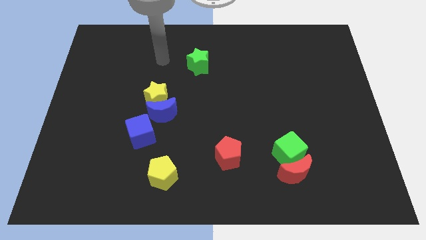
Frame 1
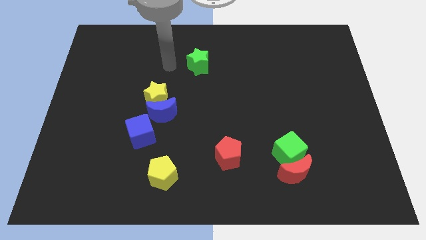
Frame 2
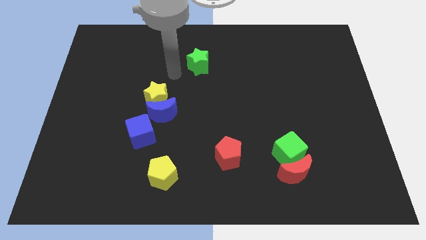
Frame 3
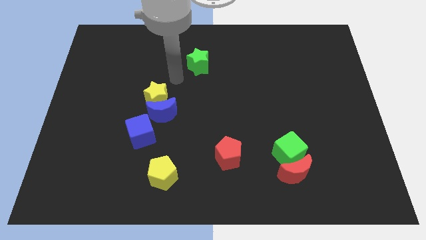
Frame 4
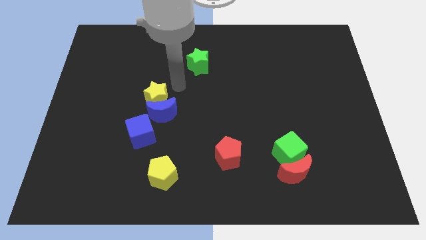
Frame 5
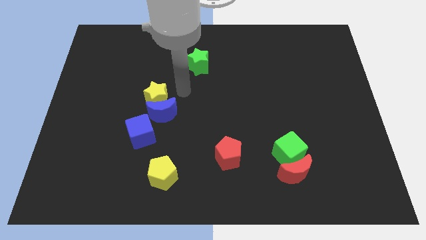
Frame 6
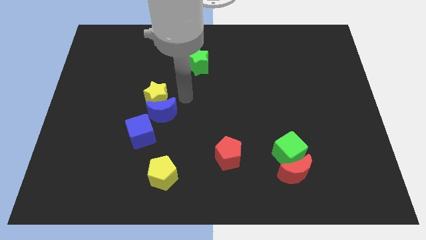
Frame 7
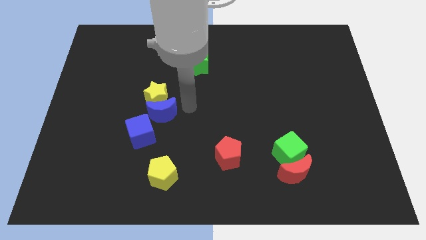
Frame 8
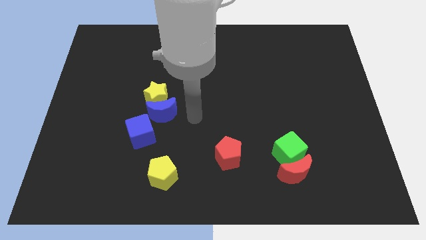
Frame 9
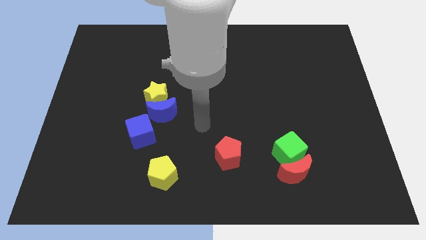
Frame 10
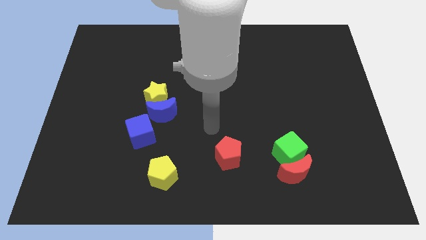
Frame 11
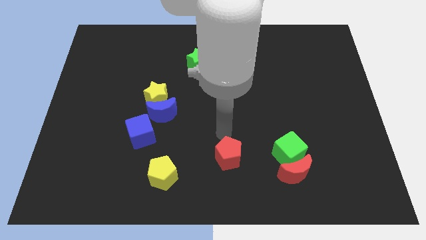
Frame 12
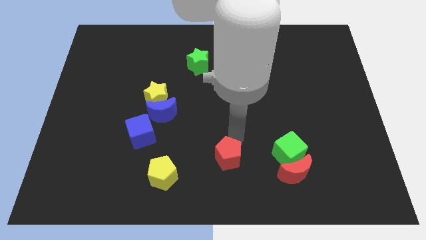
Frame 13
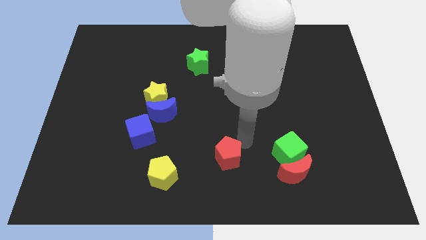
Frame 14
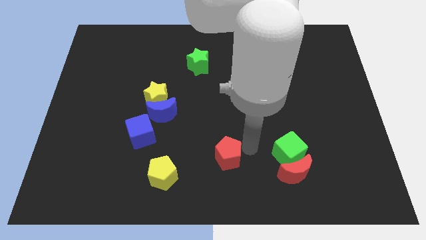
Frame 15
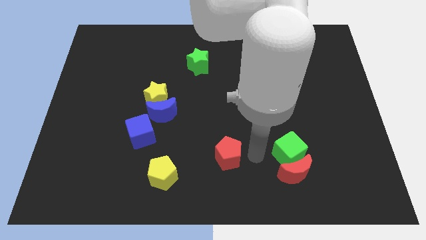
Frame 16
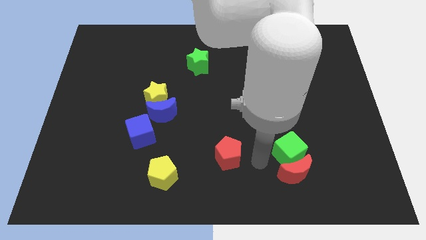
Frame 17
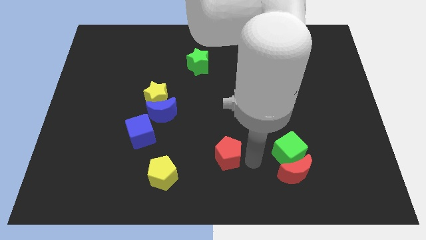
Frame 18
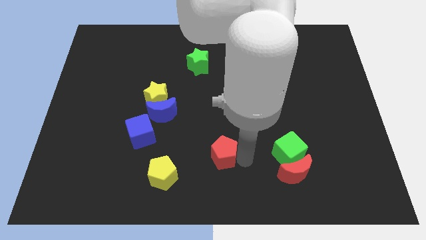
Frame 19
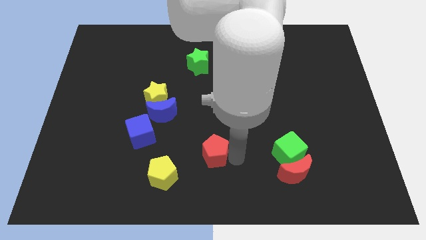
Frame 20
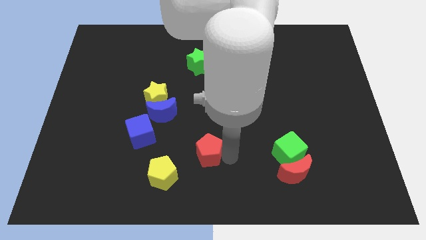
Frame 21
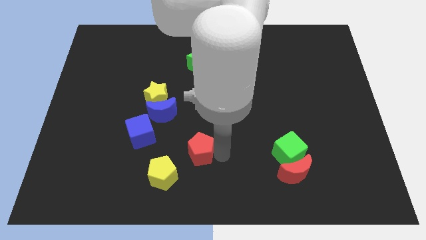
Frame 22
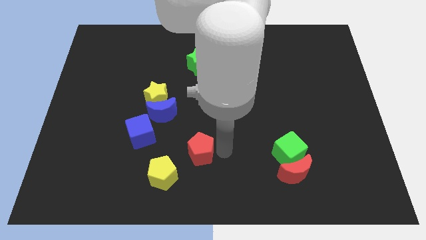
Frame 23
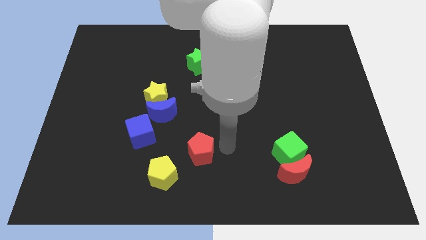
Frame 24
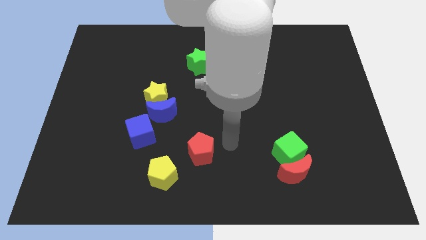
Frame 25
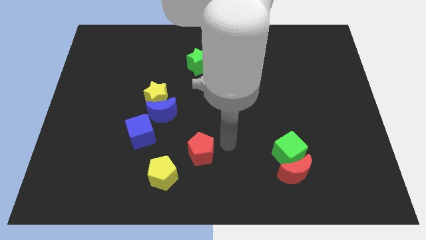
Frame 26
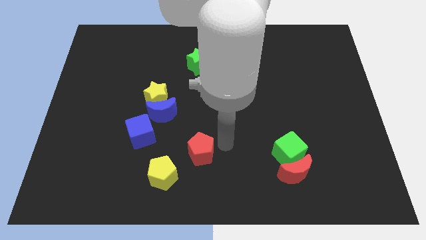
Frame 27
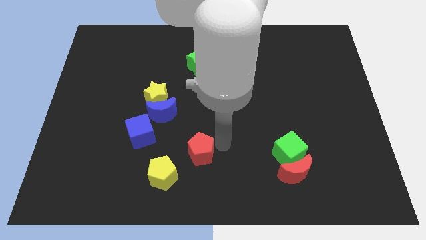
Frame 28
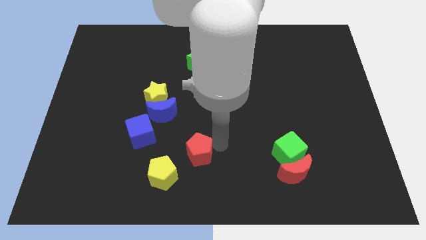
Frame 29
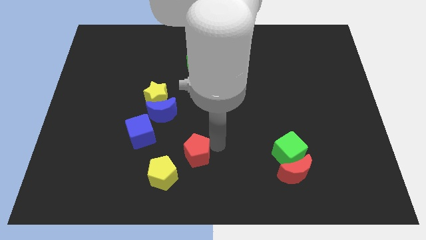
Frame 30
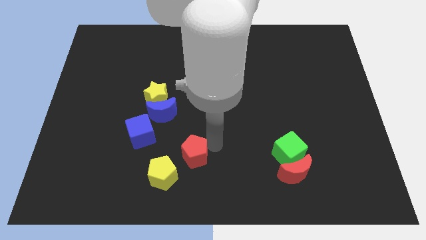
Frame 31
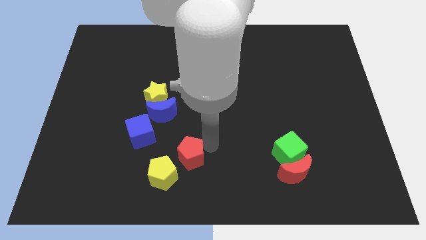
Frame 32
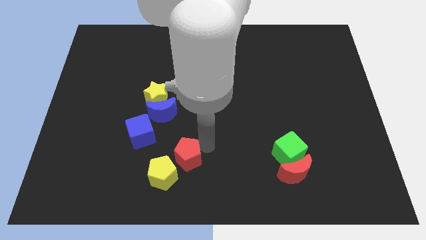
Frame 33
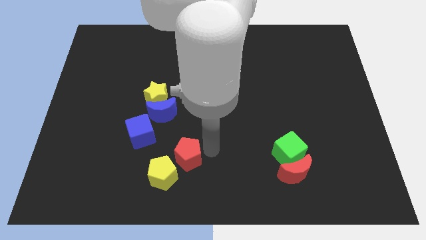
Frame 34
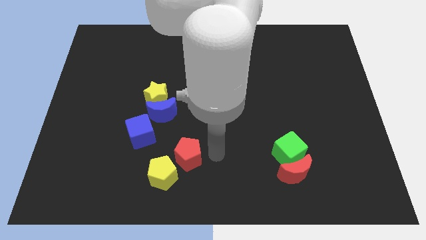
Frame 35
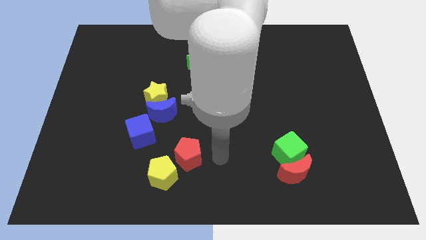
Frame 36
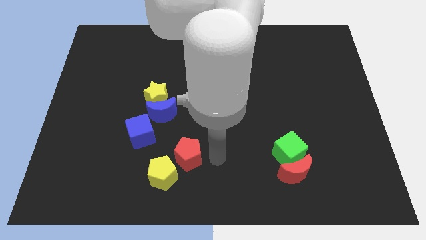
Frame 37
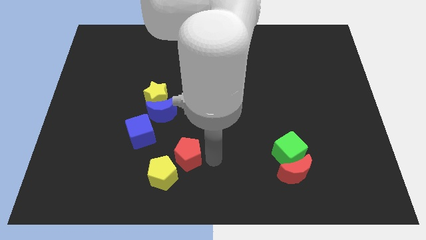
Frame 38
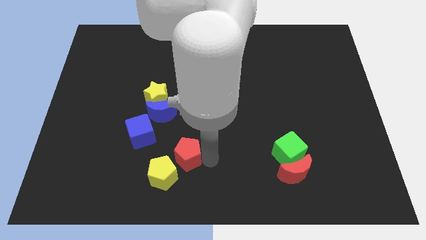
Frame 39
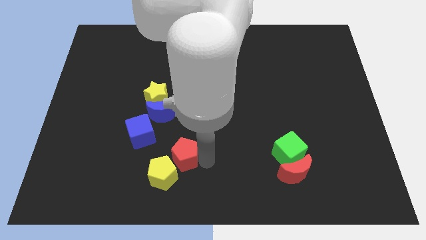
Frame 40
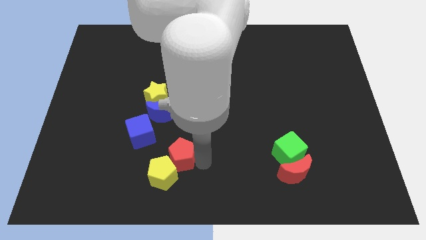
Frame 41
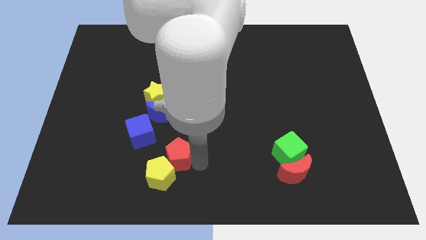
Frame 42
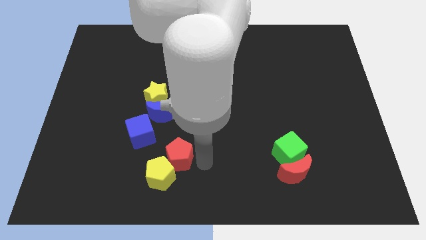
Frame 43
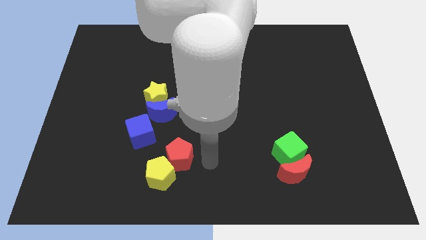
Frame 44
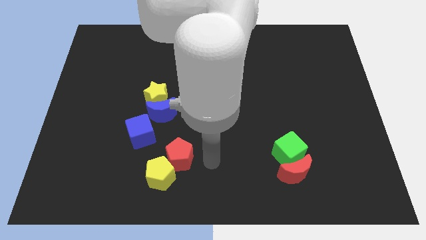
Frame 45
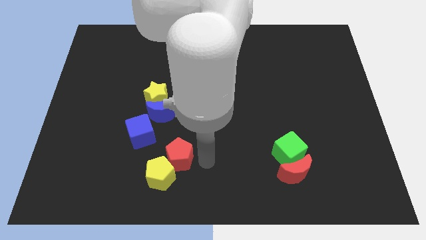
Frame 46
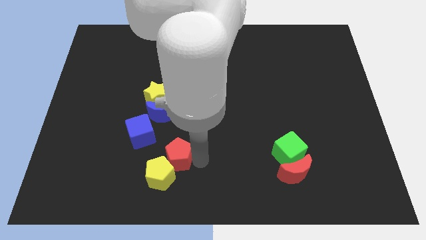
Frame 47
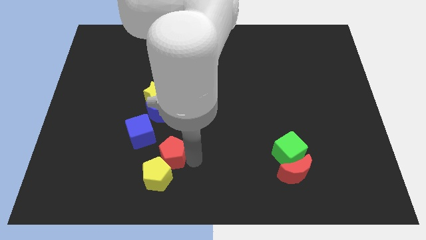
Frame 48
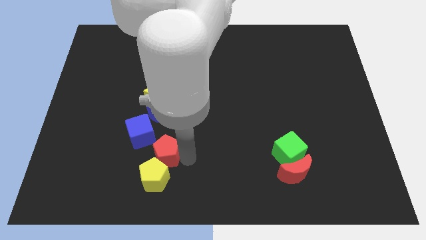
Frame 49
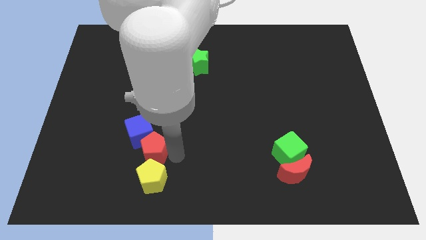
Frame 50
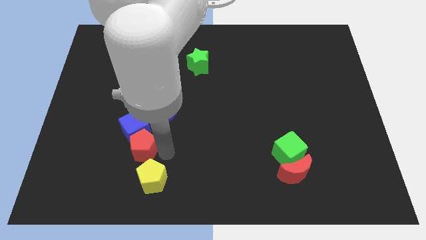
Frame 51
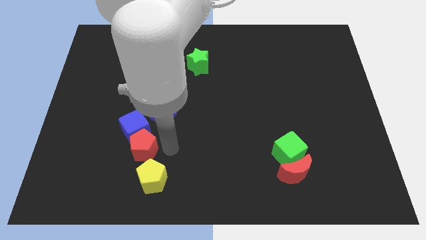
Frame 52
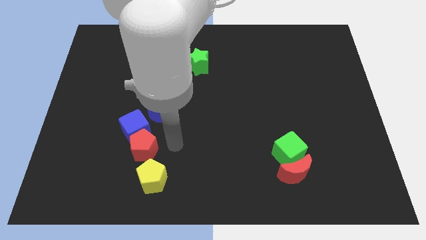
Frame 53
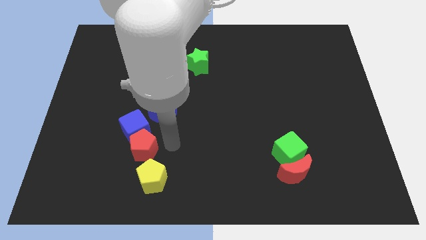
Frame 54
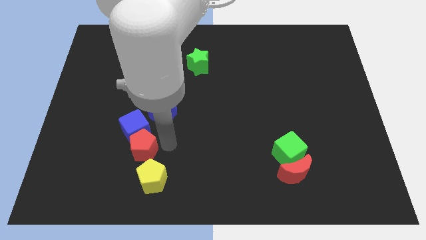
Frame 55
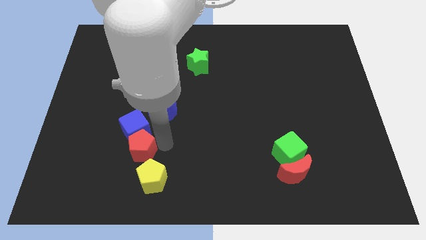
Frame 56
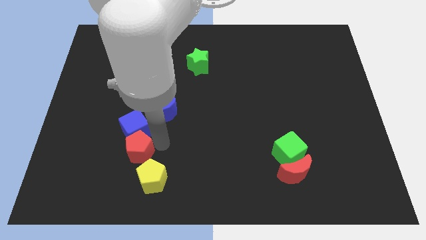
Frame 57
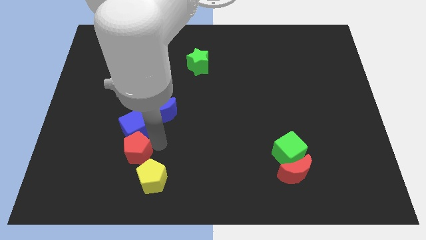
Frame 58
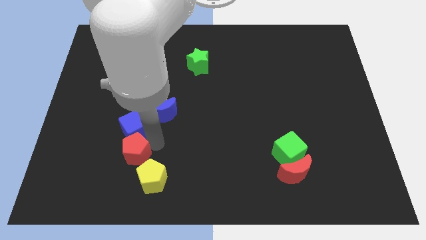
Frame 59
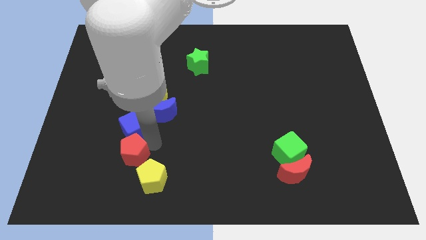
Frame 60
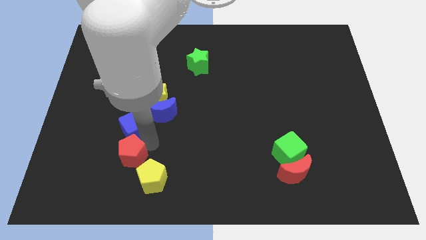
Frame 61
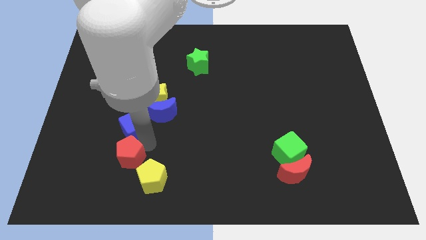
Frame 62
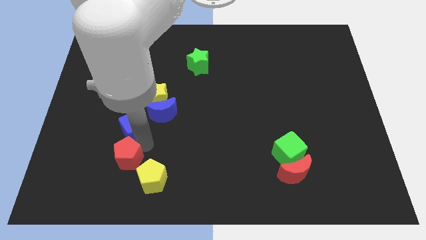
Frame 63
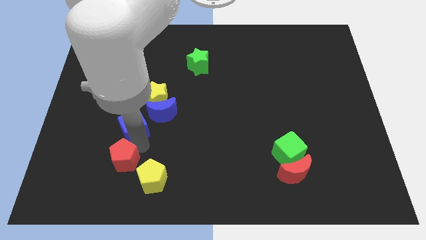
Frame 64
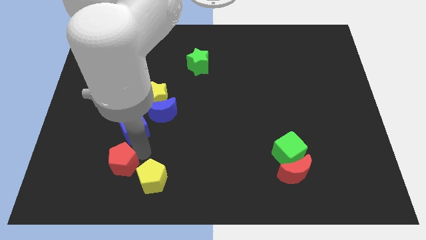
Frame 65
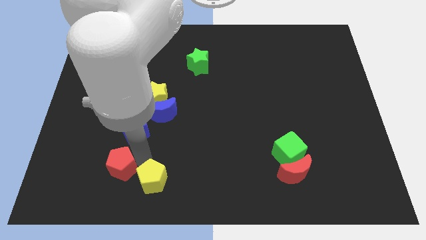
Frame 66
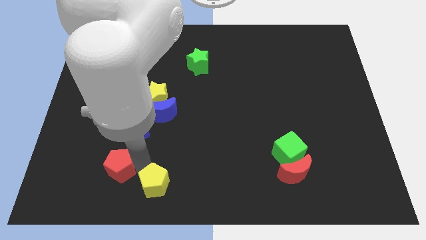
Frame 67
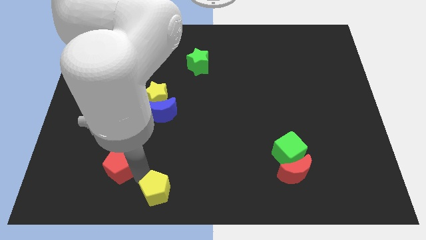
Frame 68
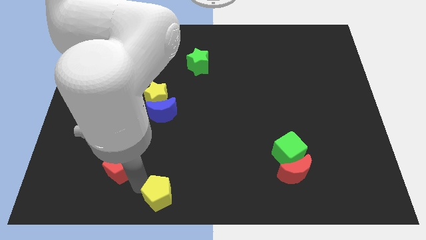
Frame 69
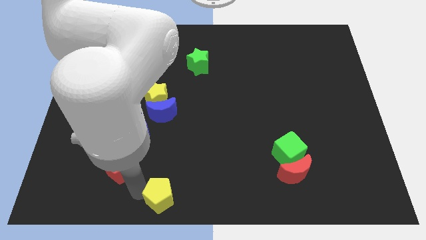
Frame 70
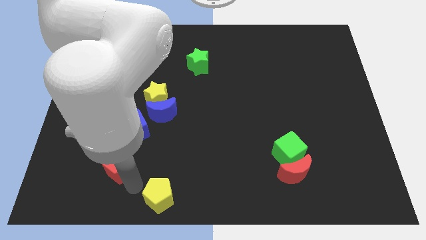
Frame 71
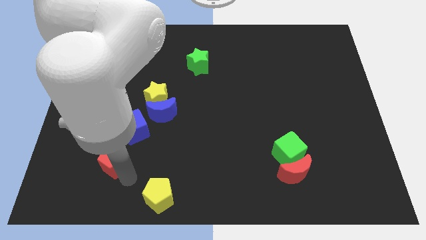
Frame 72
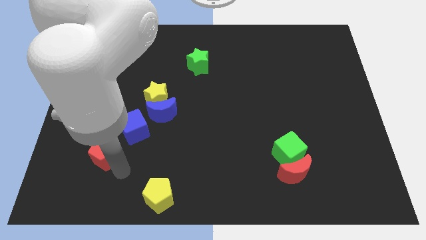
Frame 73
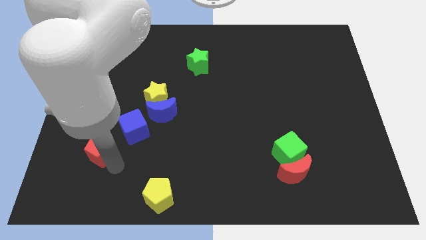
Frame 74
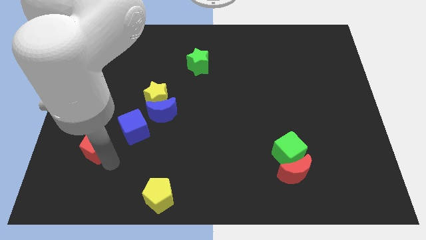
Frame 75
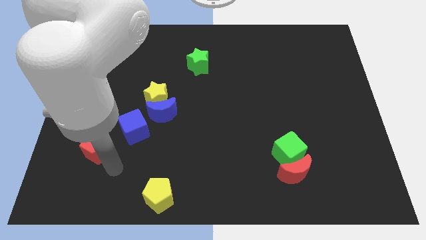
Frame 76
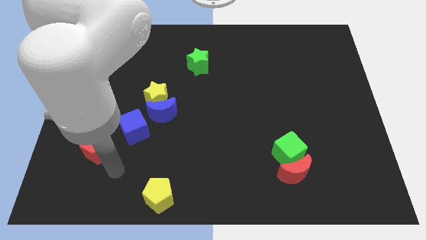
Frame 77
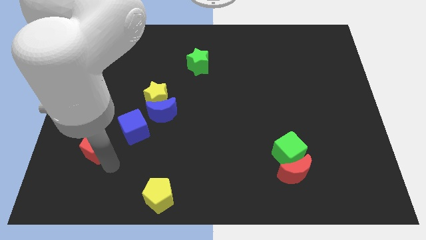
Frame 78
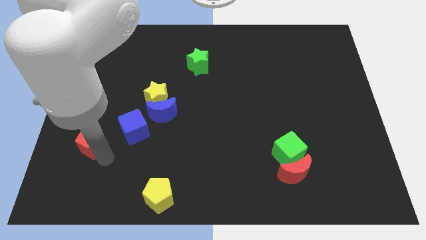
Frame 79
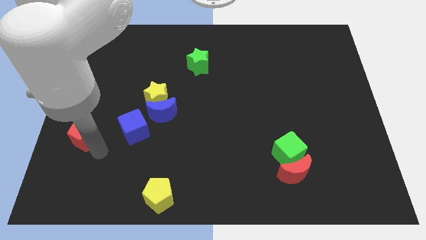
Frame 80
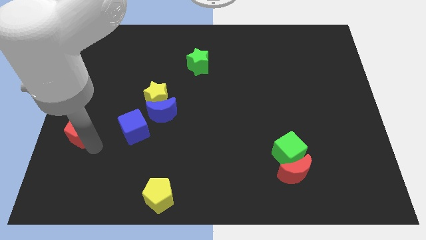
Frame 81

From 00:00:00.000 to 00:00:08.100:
slide the red pentagon to the left side
